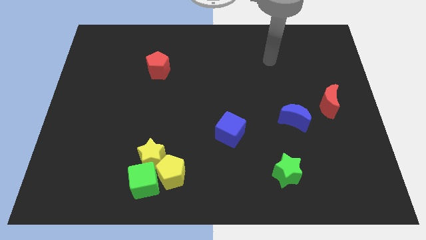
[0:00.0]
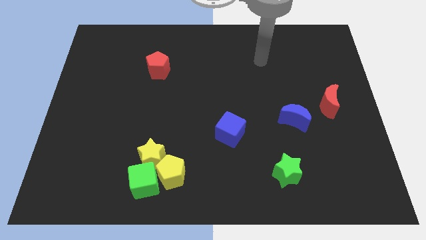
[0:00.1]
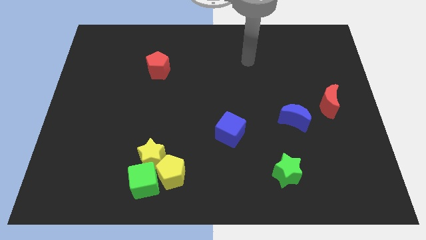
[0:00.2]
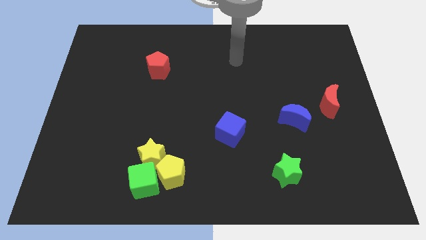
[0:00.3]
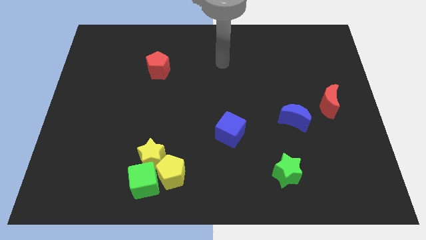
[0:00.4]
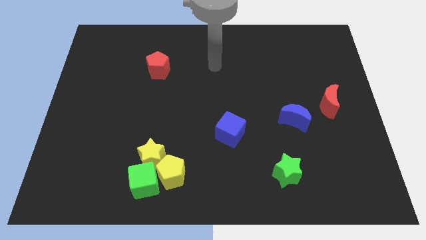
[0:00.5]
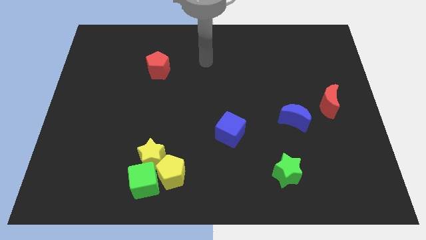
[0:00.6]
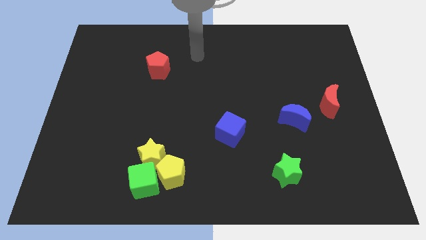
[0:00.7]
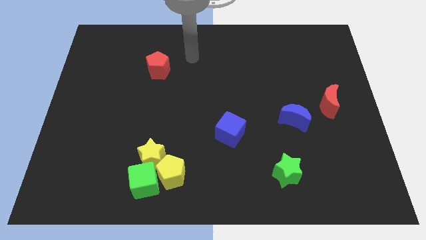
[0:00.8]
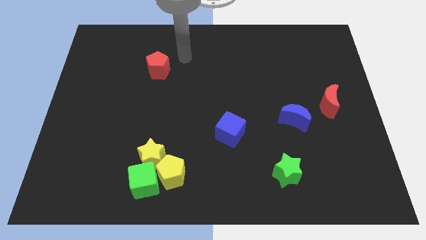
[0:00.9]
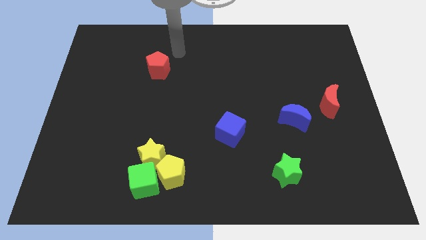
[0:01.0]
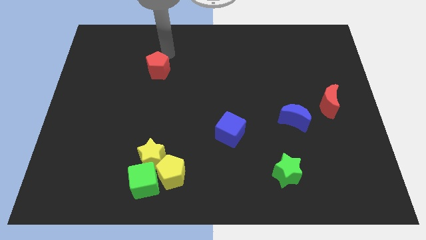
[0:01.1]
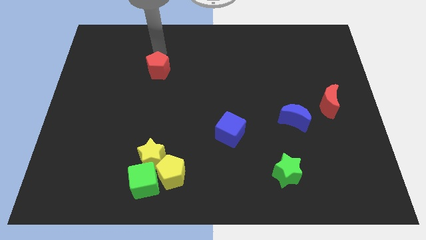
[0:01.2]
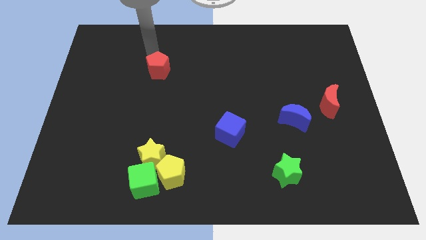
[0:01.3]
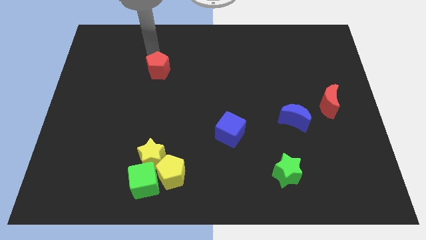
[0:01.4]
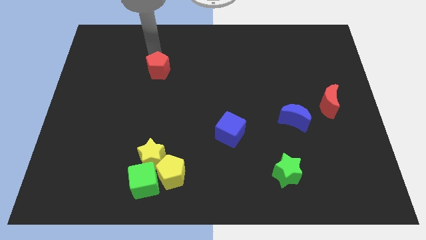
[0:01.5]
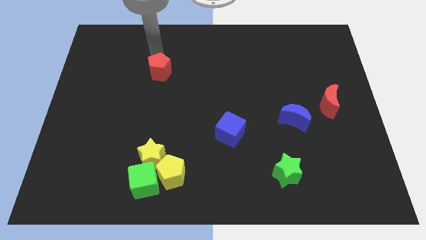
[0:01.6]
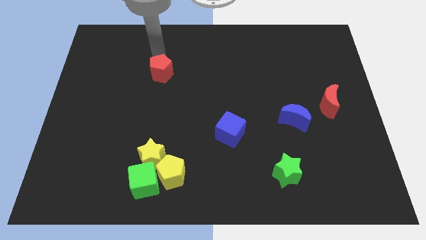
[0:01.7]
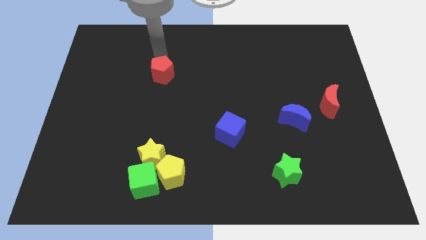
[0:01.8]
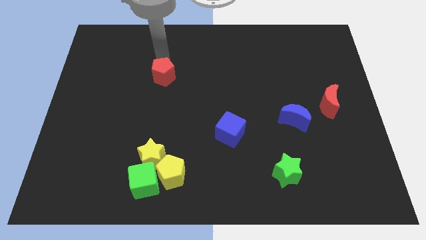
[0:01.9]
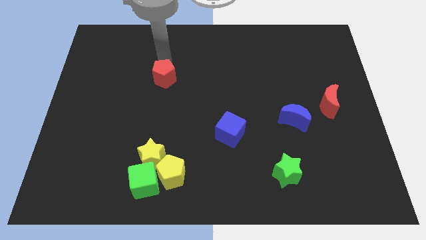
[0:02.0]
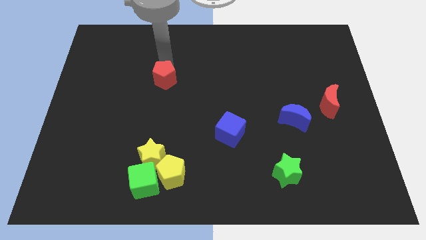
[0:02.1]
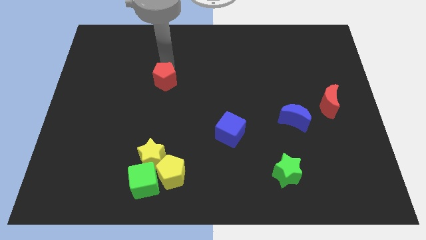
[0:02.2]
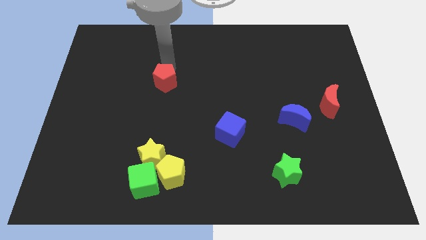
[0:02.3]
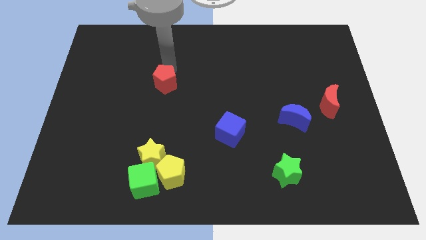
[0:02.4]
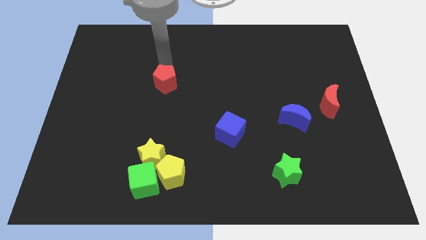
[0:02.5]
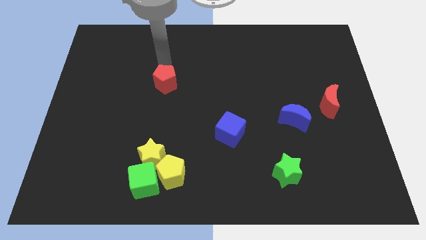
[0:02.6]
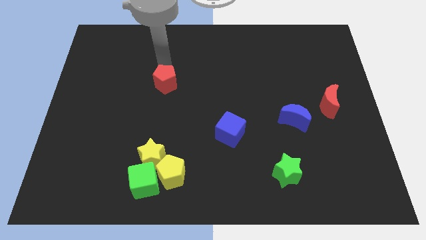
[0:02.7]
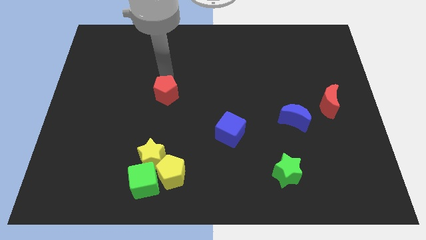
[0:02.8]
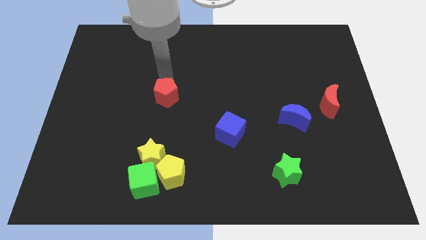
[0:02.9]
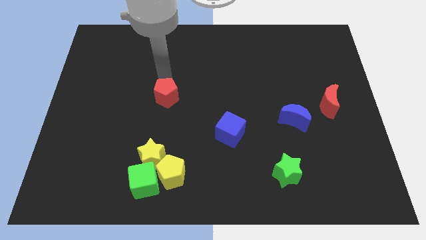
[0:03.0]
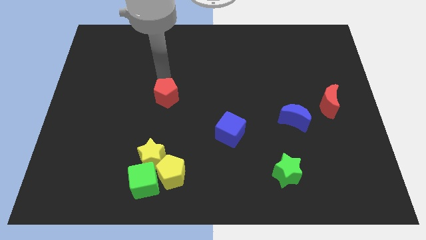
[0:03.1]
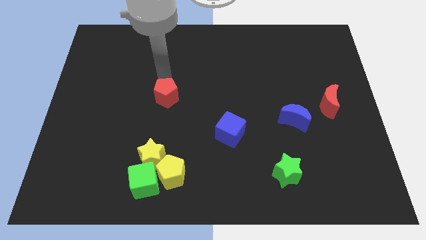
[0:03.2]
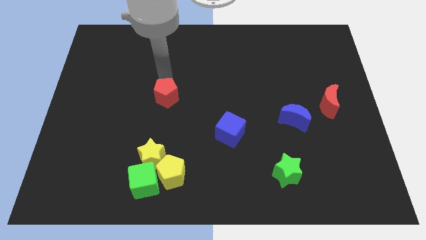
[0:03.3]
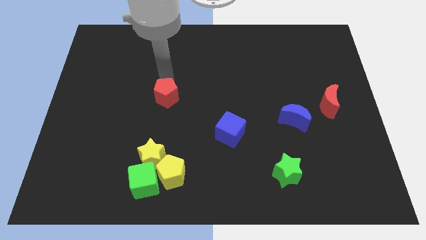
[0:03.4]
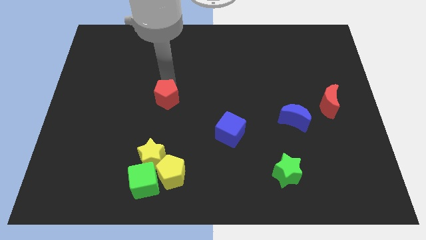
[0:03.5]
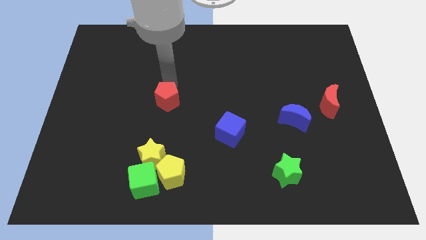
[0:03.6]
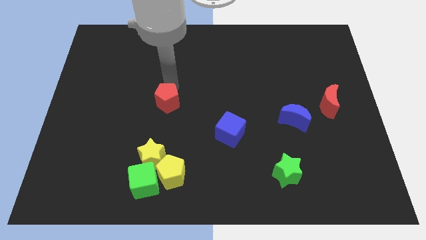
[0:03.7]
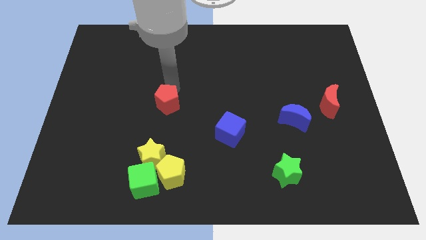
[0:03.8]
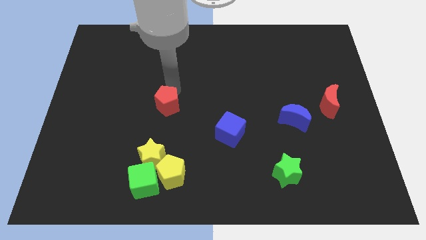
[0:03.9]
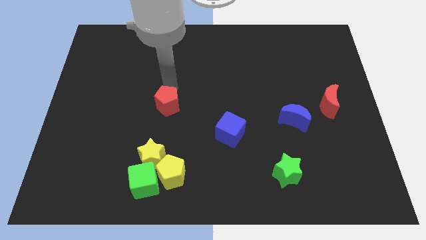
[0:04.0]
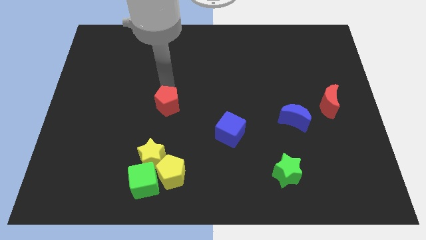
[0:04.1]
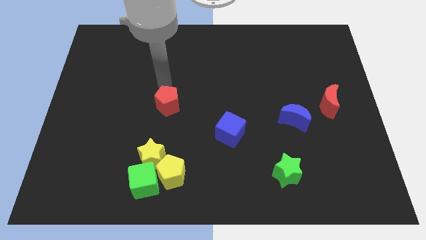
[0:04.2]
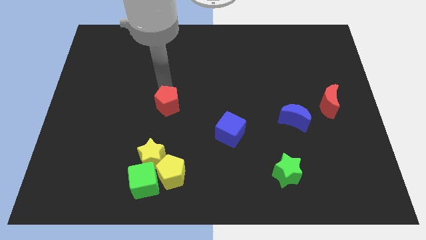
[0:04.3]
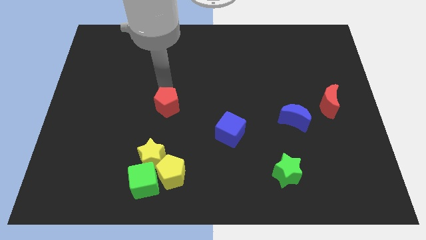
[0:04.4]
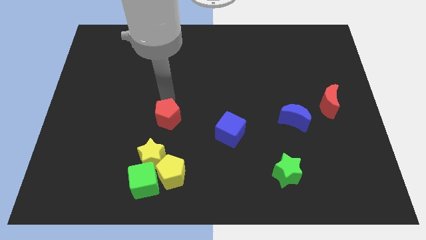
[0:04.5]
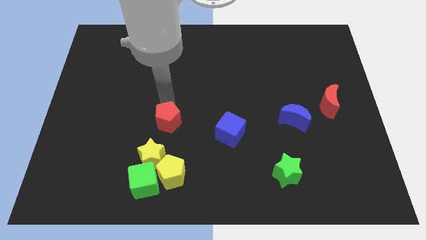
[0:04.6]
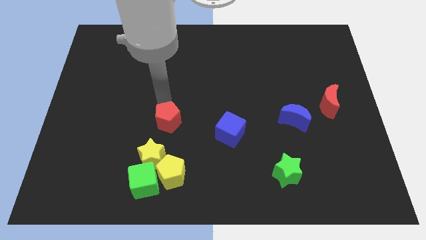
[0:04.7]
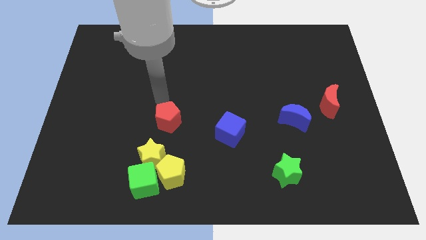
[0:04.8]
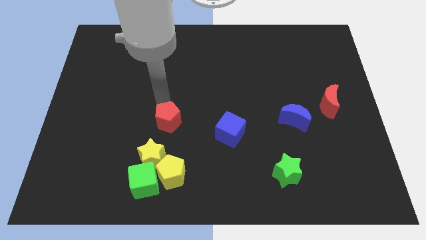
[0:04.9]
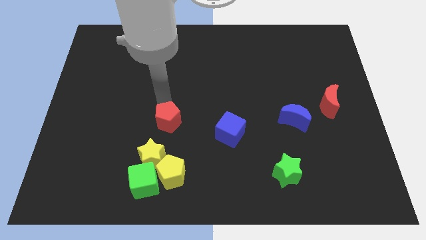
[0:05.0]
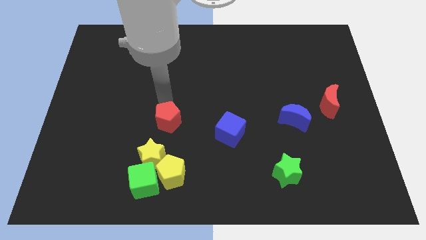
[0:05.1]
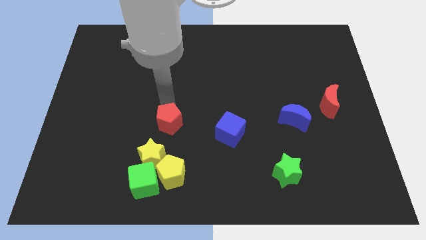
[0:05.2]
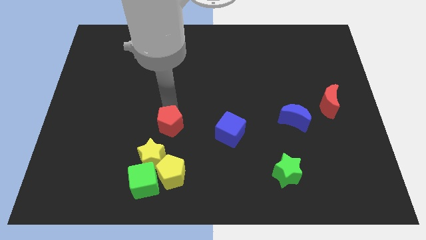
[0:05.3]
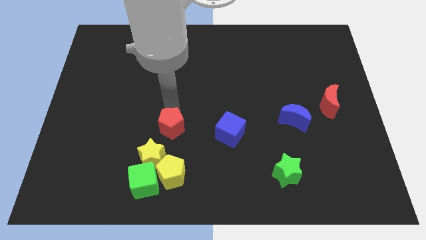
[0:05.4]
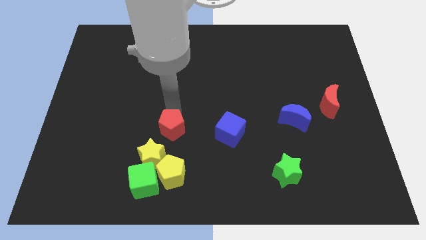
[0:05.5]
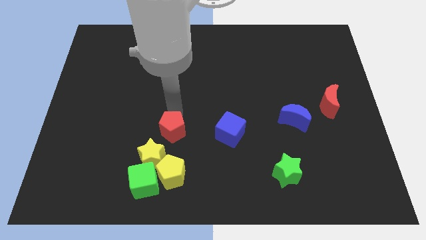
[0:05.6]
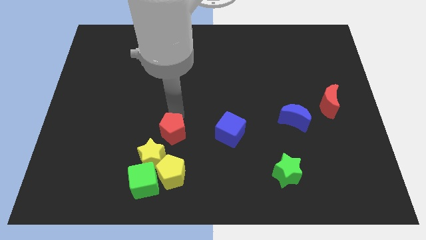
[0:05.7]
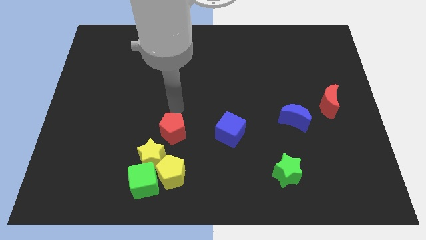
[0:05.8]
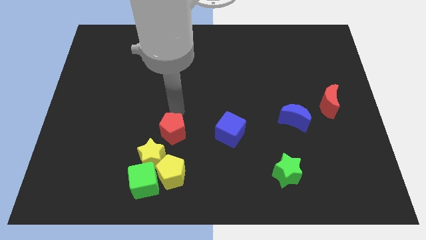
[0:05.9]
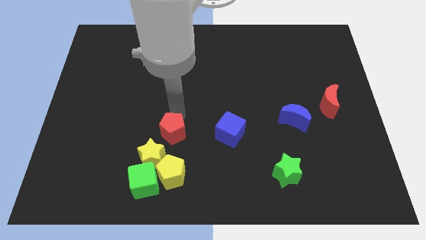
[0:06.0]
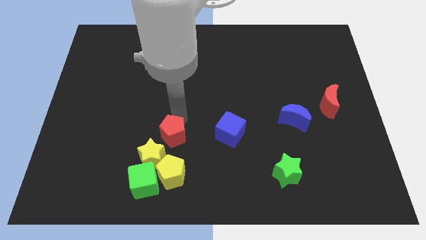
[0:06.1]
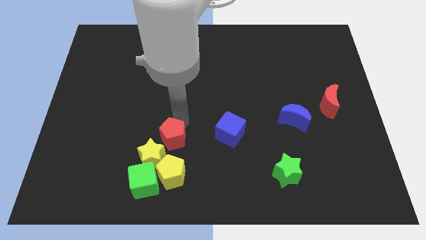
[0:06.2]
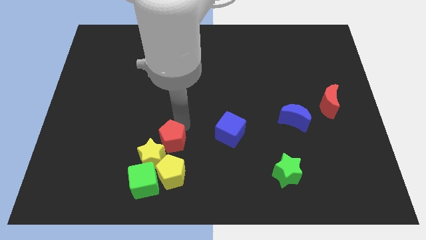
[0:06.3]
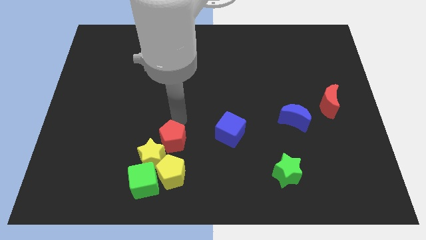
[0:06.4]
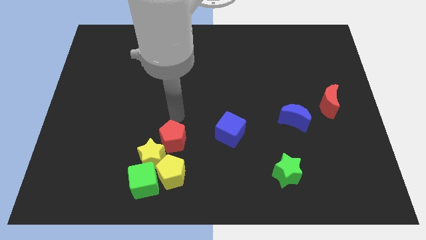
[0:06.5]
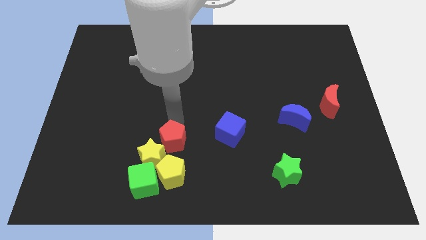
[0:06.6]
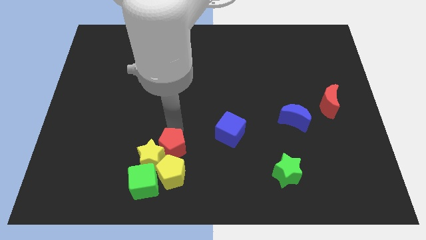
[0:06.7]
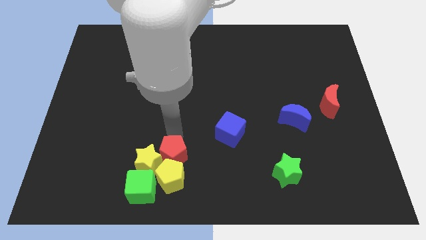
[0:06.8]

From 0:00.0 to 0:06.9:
move the red pentagon close to the yellow pentagon
